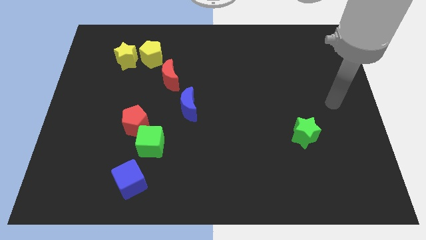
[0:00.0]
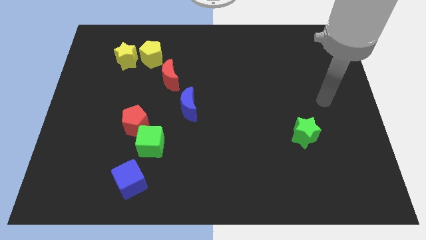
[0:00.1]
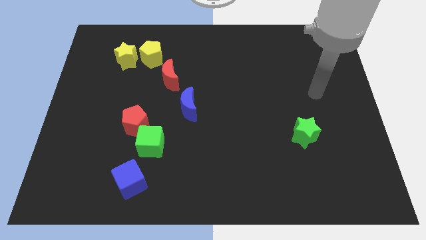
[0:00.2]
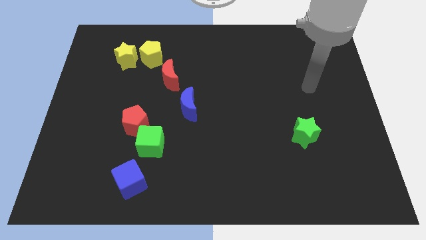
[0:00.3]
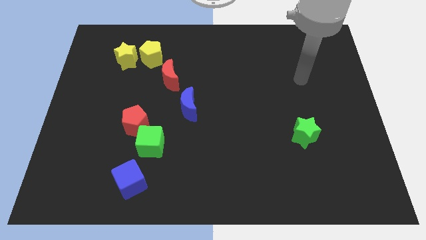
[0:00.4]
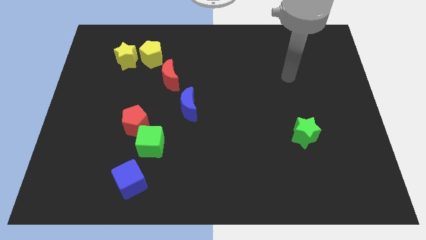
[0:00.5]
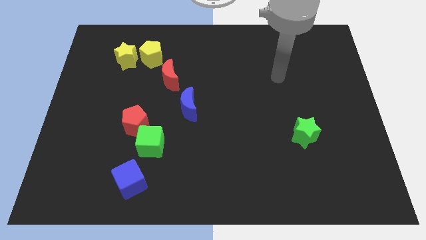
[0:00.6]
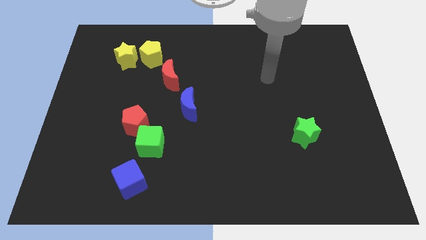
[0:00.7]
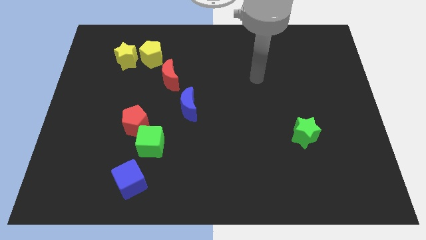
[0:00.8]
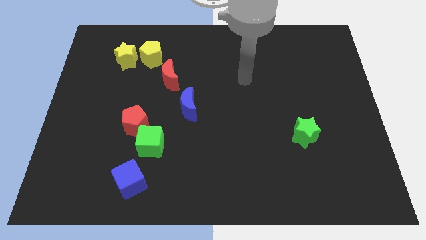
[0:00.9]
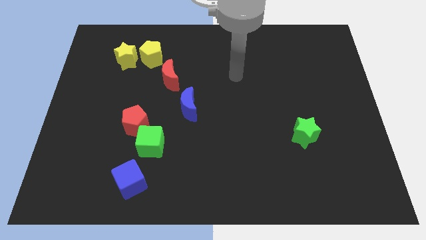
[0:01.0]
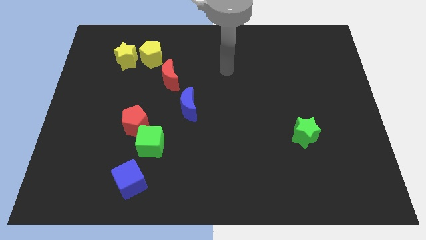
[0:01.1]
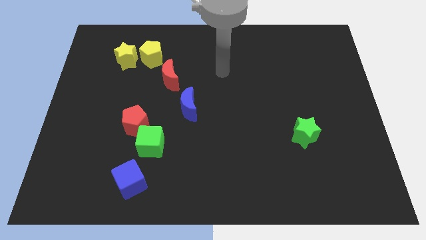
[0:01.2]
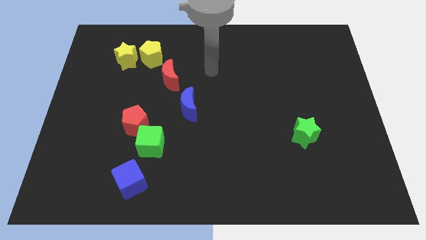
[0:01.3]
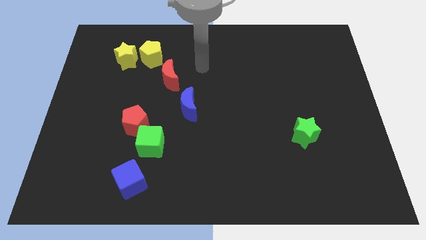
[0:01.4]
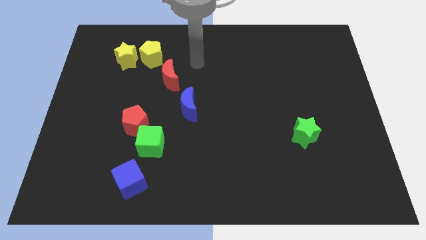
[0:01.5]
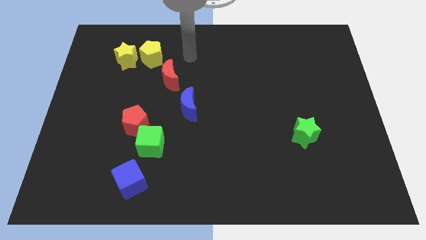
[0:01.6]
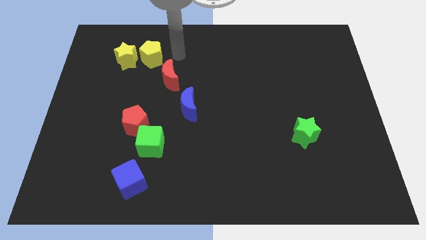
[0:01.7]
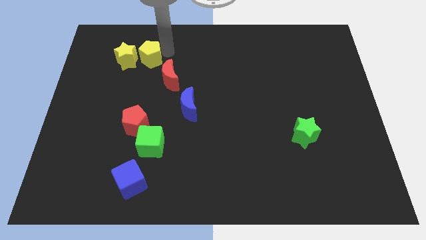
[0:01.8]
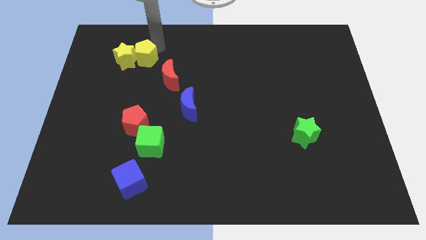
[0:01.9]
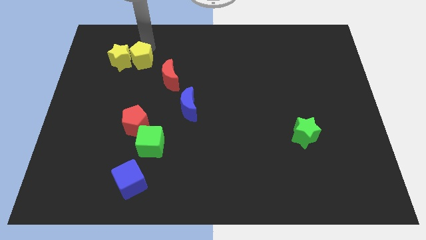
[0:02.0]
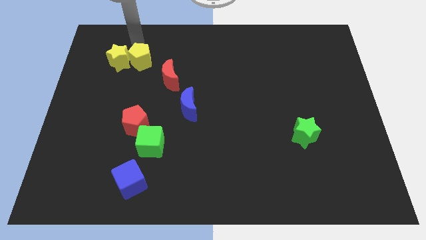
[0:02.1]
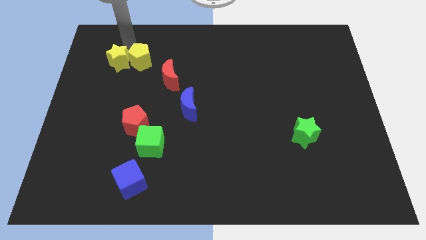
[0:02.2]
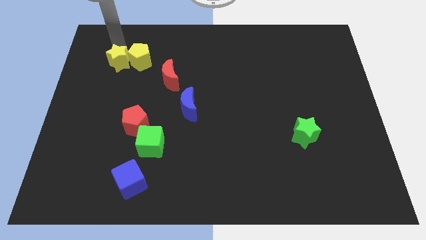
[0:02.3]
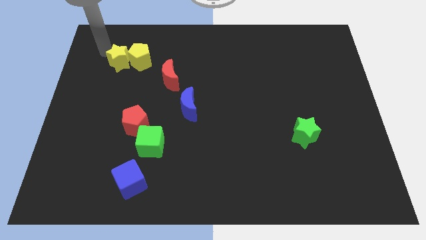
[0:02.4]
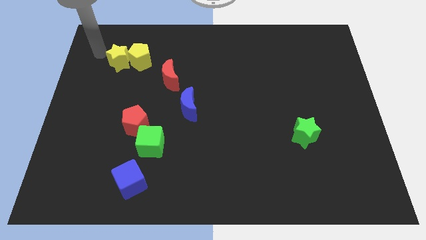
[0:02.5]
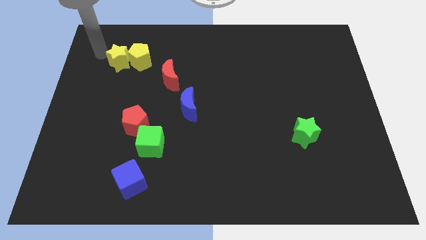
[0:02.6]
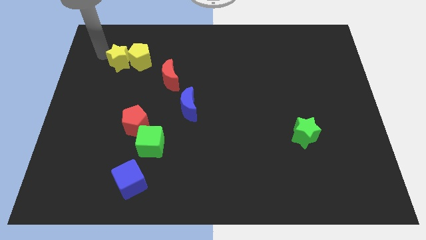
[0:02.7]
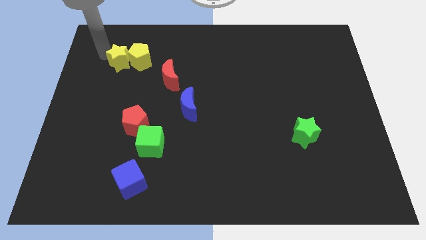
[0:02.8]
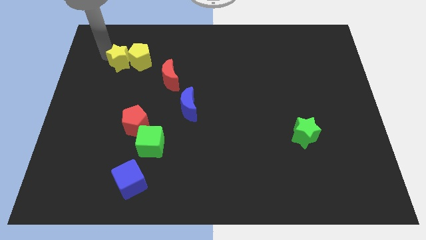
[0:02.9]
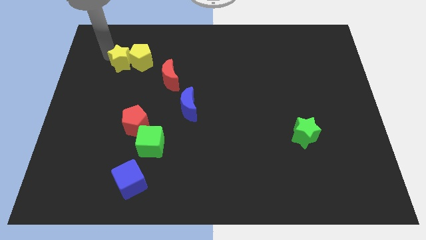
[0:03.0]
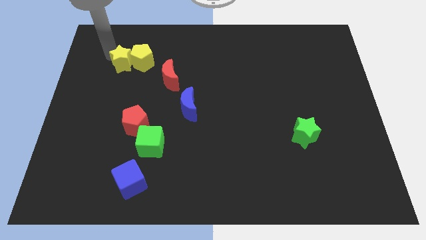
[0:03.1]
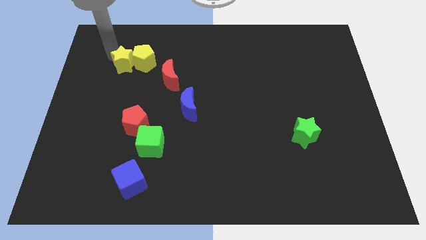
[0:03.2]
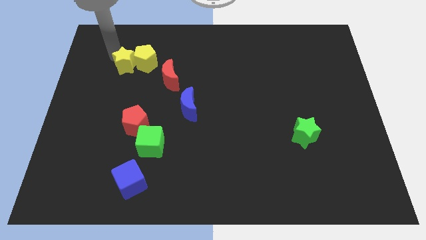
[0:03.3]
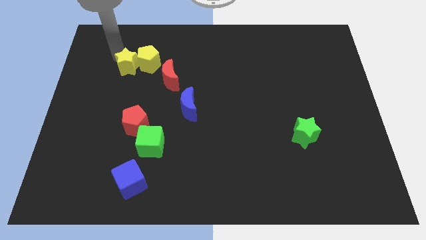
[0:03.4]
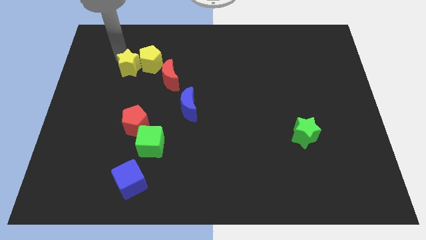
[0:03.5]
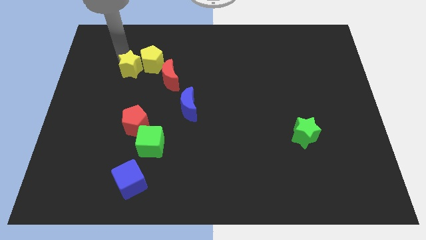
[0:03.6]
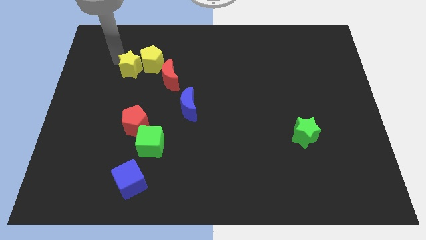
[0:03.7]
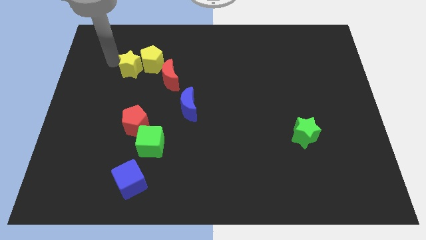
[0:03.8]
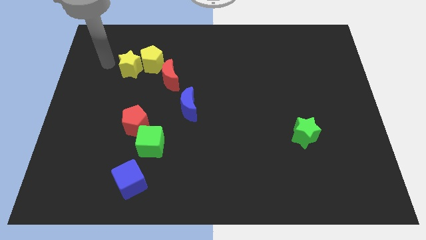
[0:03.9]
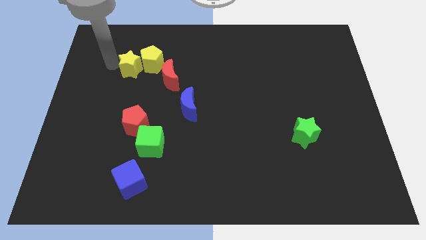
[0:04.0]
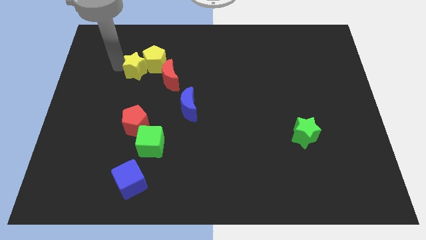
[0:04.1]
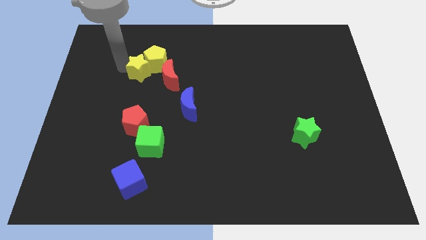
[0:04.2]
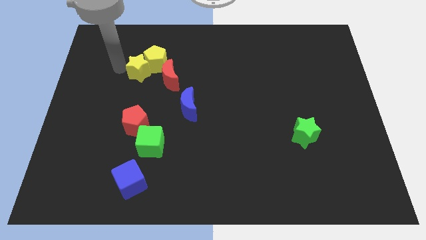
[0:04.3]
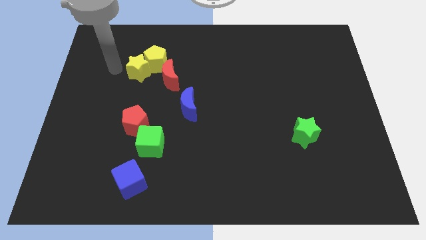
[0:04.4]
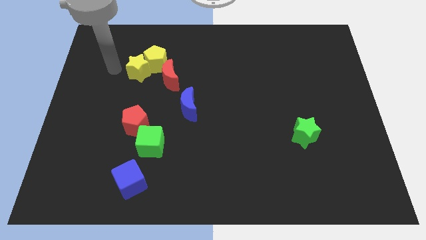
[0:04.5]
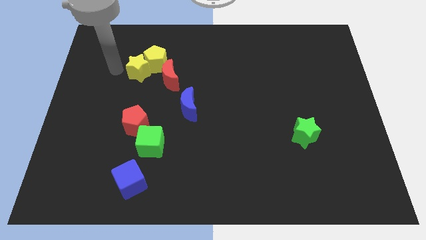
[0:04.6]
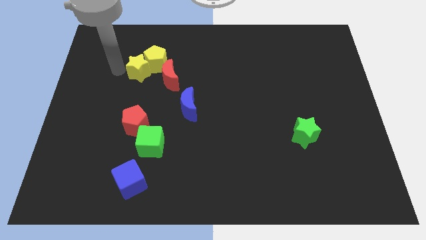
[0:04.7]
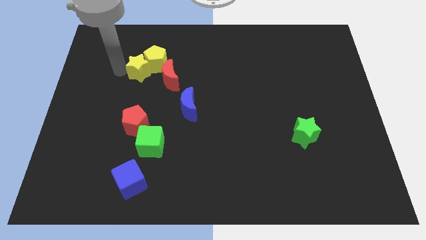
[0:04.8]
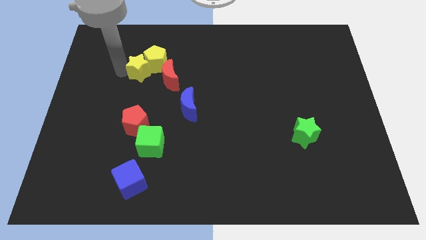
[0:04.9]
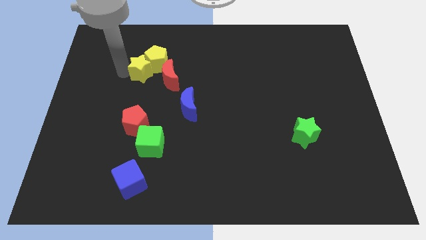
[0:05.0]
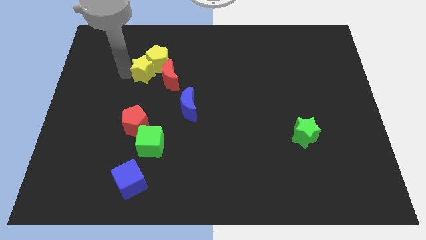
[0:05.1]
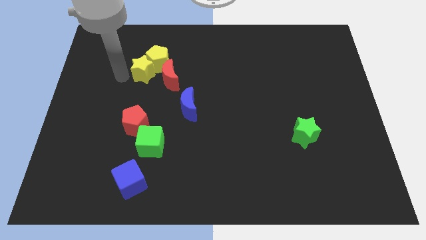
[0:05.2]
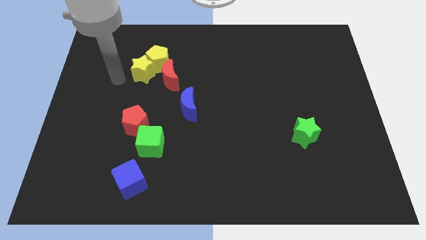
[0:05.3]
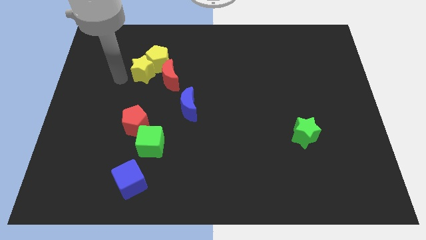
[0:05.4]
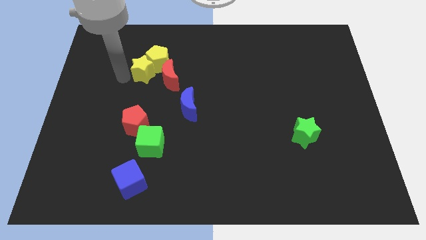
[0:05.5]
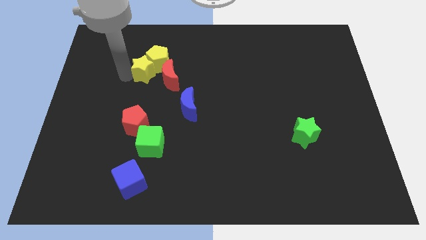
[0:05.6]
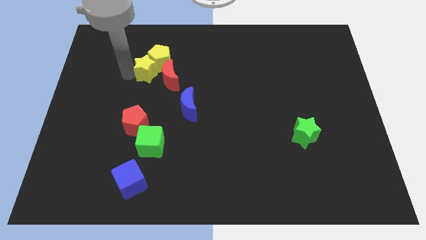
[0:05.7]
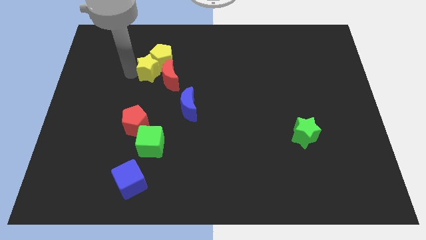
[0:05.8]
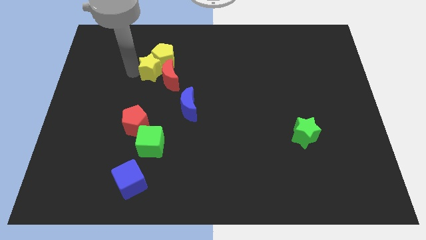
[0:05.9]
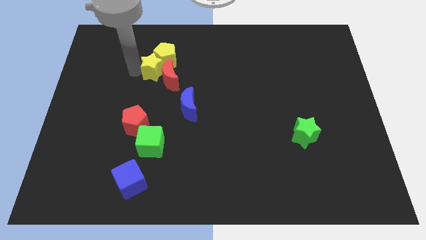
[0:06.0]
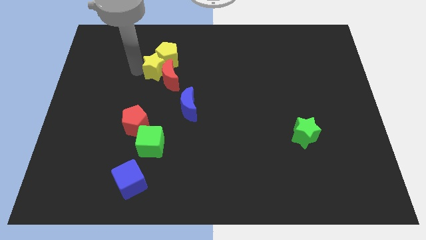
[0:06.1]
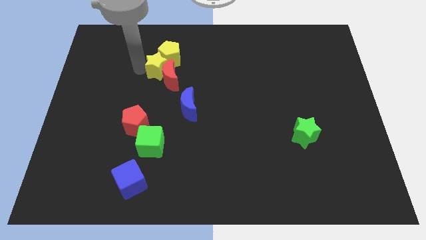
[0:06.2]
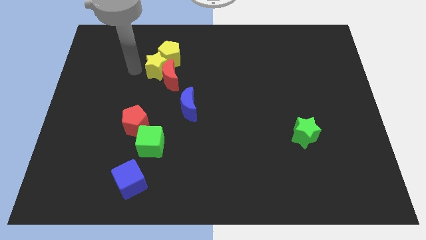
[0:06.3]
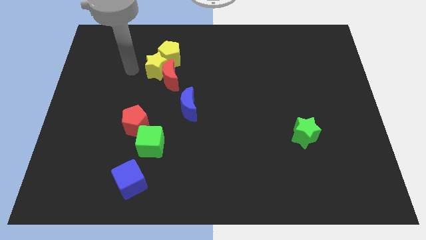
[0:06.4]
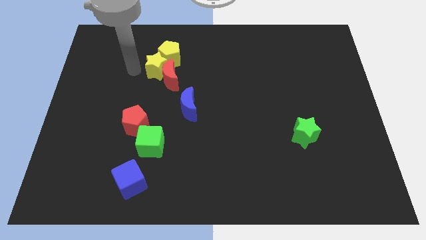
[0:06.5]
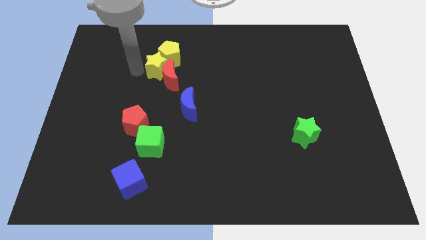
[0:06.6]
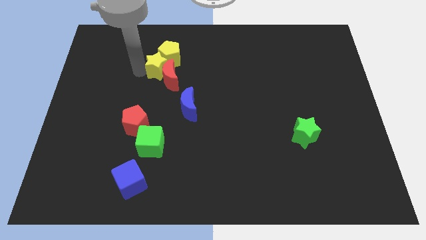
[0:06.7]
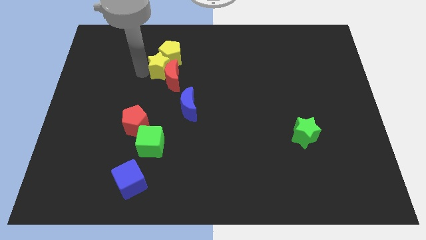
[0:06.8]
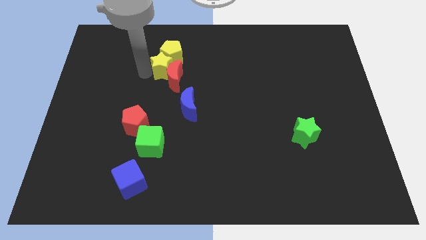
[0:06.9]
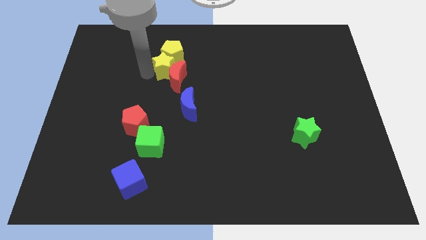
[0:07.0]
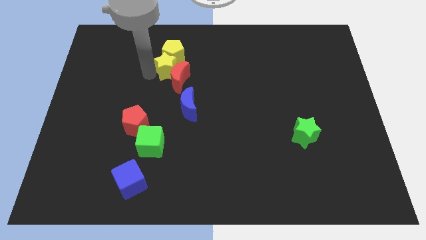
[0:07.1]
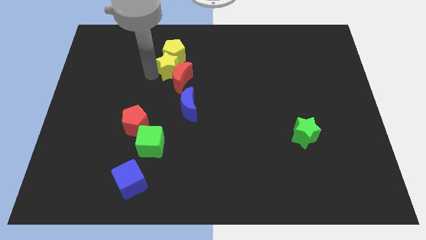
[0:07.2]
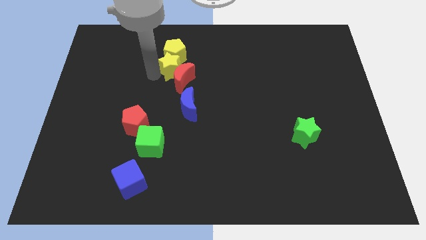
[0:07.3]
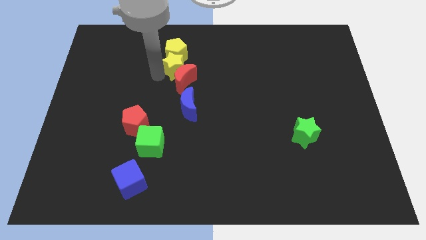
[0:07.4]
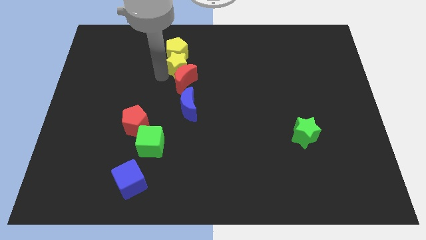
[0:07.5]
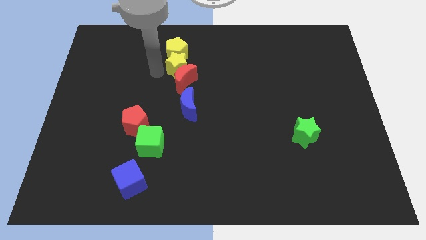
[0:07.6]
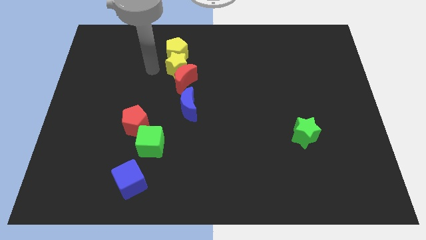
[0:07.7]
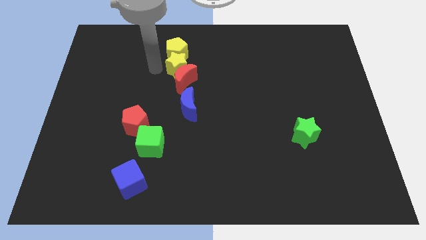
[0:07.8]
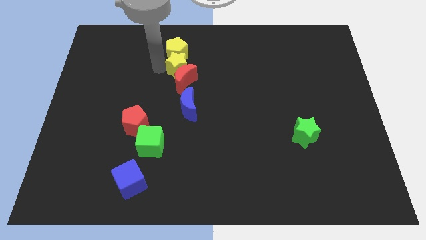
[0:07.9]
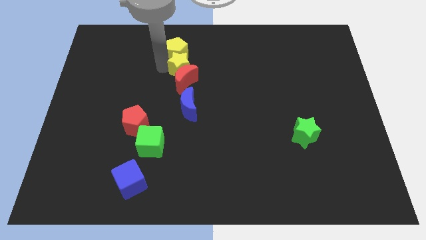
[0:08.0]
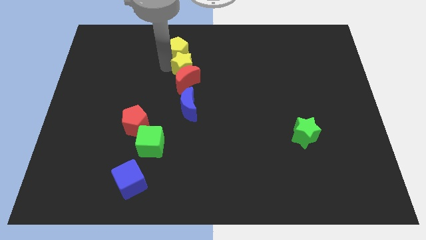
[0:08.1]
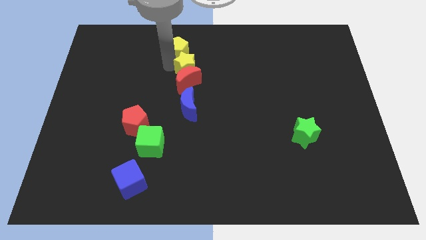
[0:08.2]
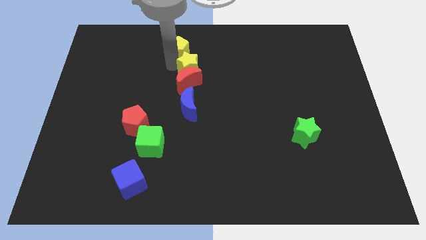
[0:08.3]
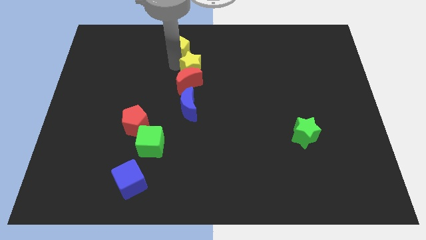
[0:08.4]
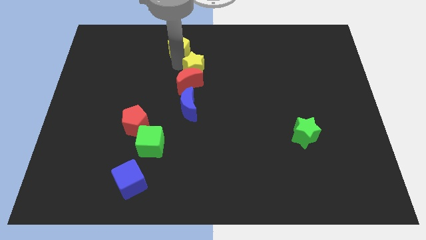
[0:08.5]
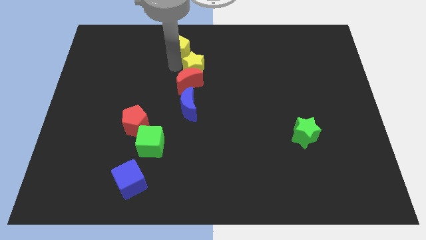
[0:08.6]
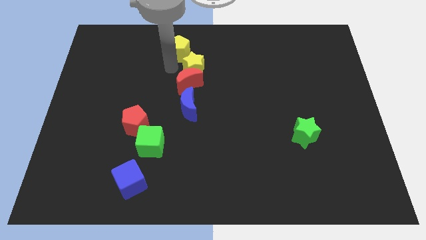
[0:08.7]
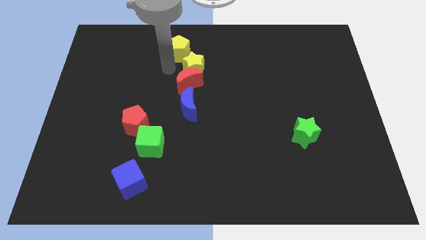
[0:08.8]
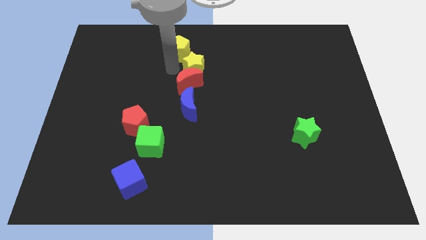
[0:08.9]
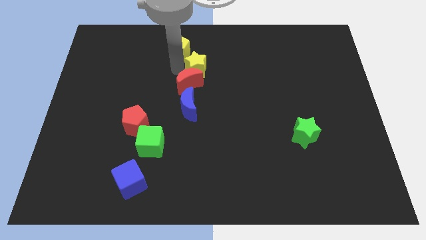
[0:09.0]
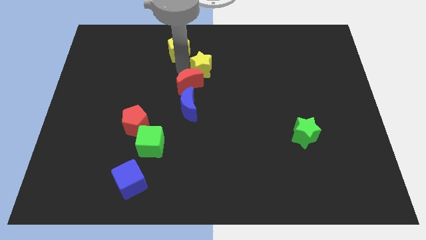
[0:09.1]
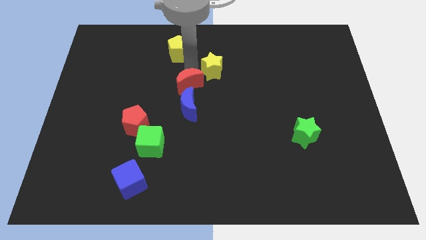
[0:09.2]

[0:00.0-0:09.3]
slide the yellow star to the right
